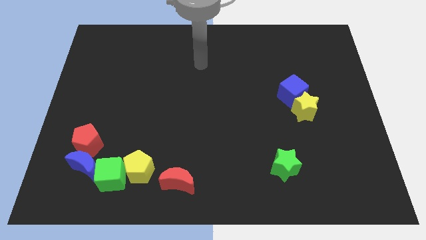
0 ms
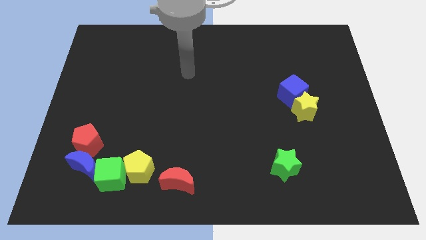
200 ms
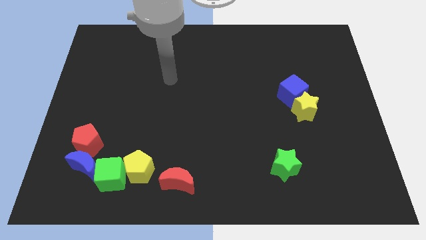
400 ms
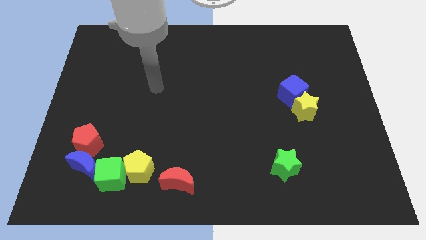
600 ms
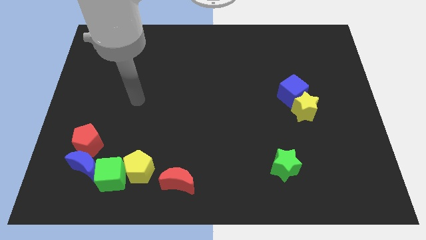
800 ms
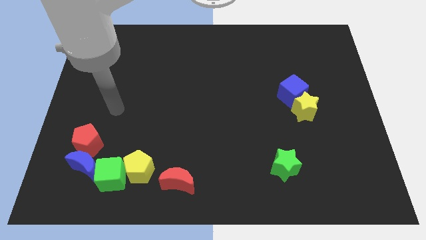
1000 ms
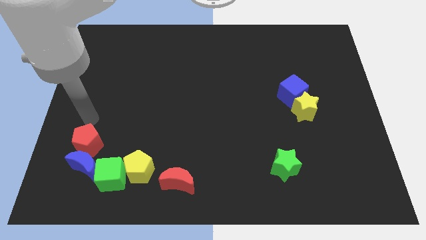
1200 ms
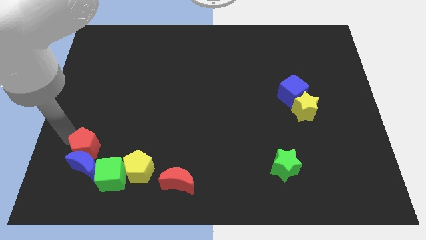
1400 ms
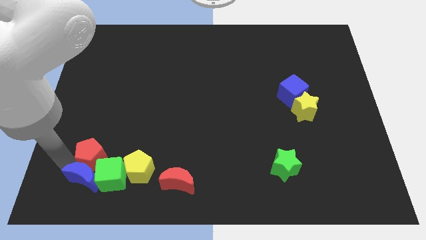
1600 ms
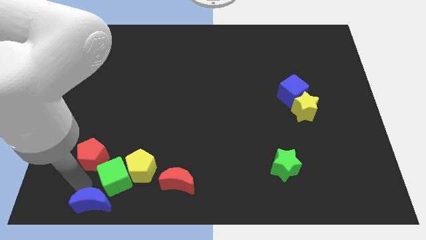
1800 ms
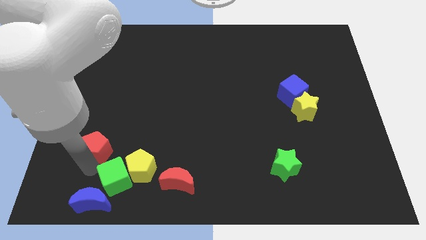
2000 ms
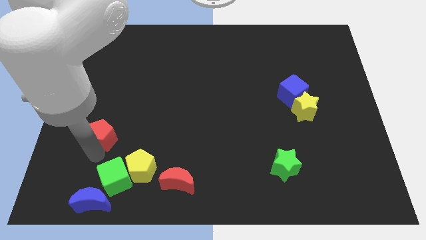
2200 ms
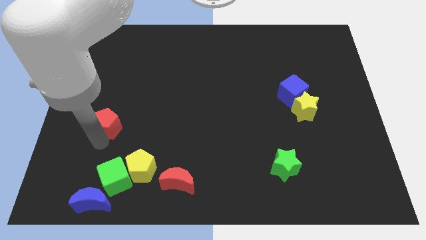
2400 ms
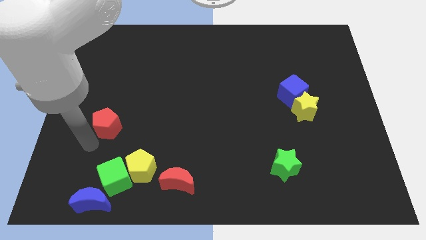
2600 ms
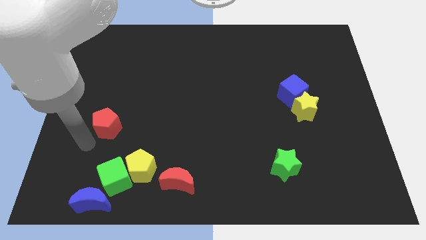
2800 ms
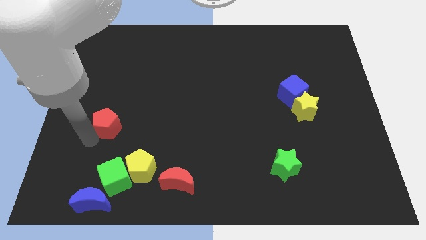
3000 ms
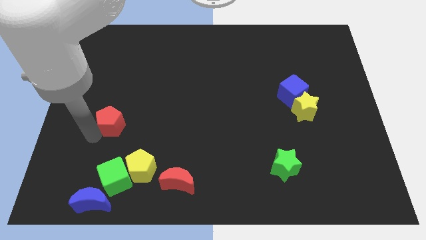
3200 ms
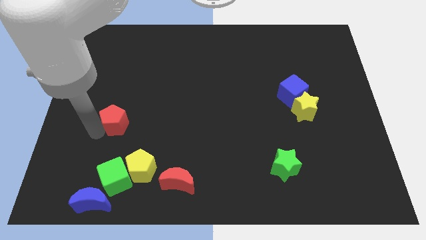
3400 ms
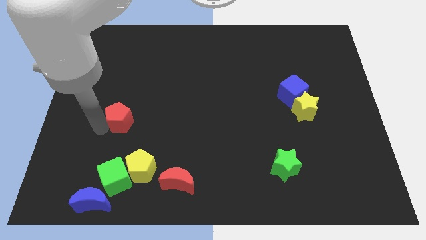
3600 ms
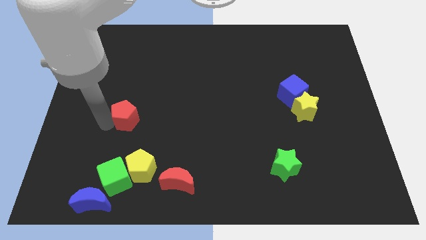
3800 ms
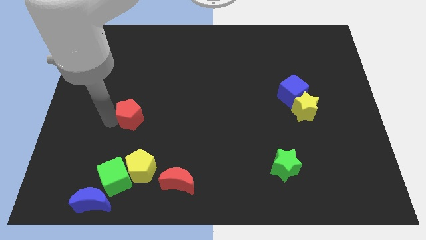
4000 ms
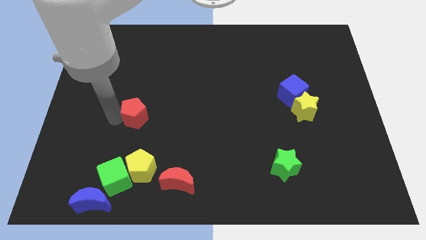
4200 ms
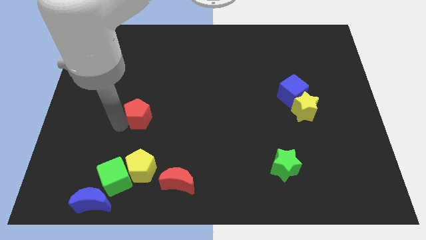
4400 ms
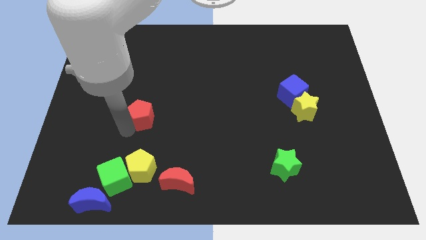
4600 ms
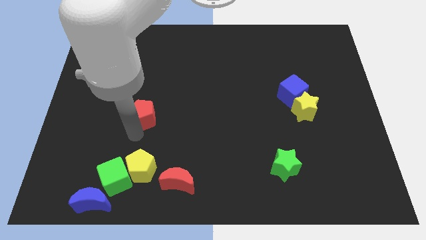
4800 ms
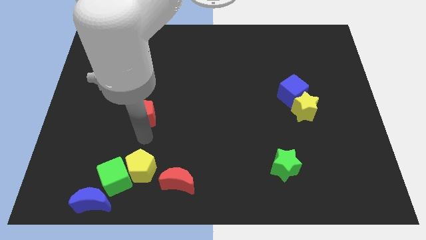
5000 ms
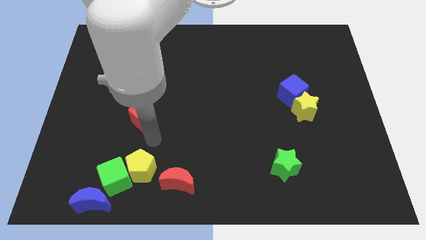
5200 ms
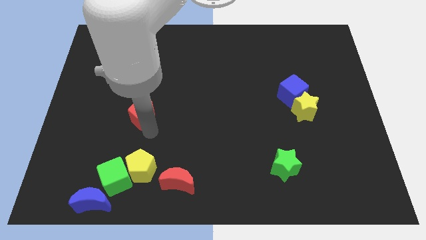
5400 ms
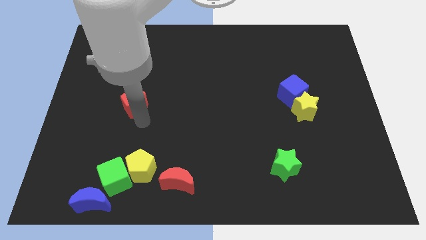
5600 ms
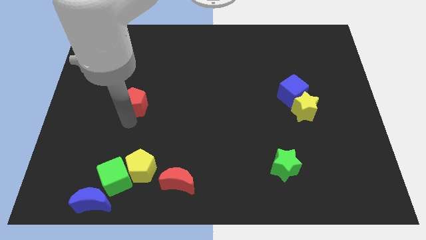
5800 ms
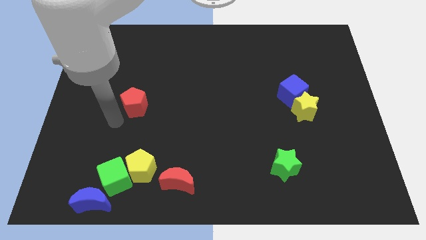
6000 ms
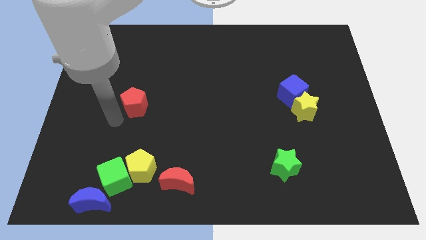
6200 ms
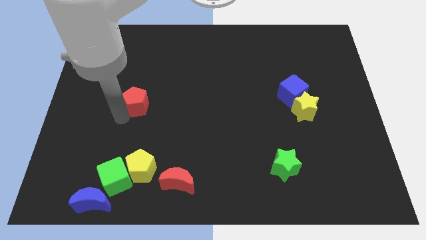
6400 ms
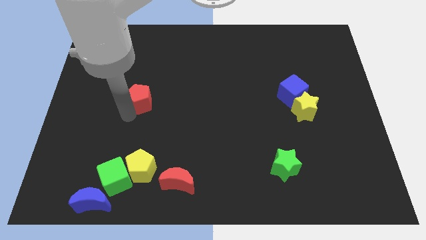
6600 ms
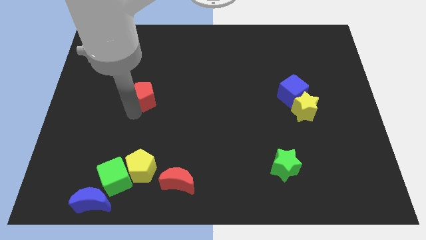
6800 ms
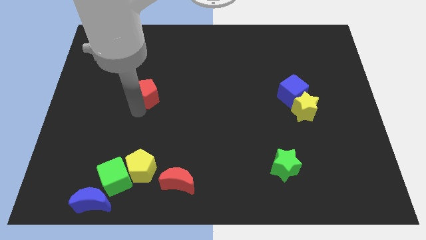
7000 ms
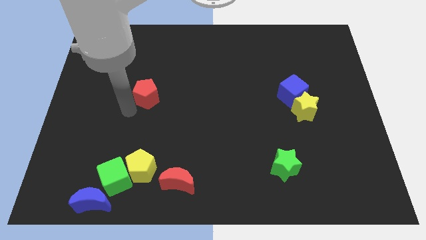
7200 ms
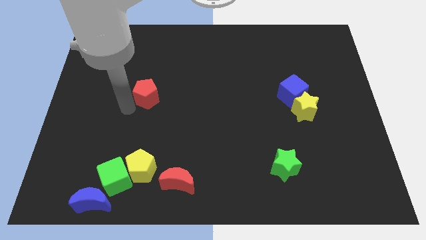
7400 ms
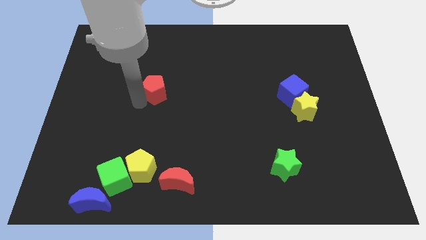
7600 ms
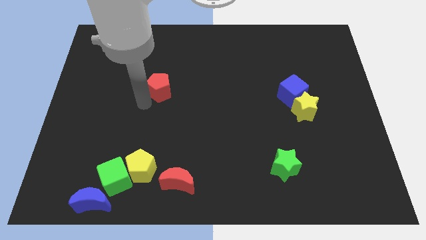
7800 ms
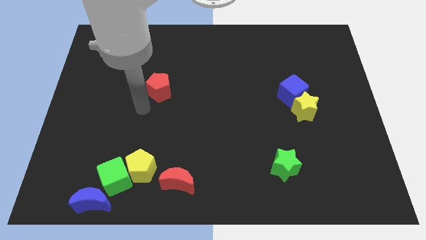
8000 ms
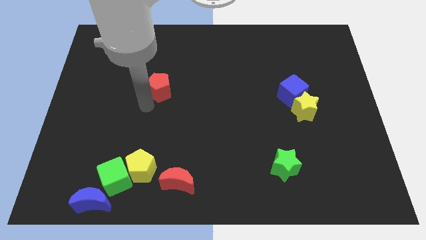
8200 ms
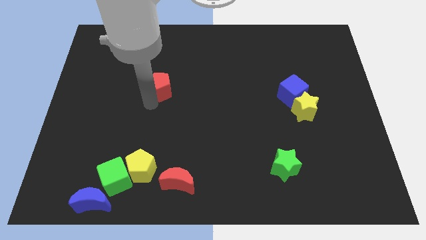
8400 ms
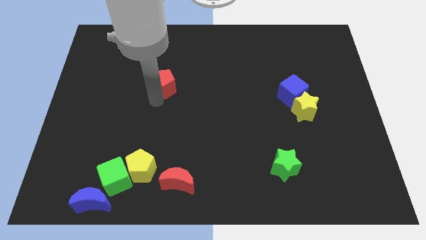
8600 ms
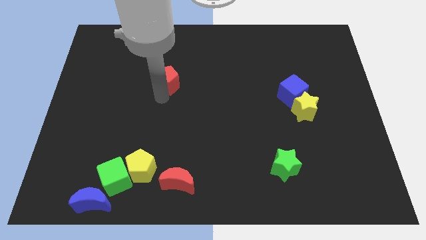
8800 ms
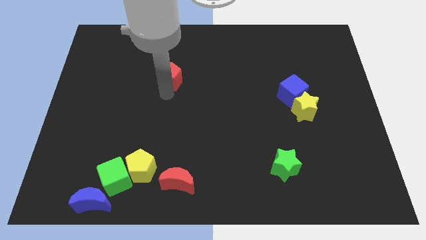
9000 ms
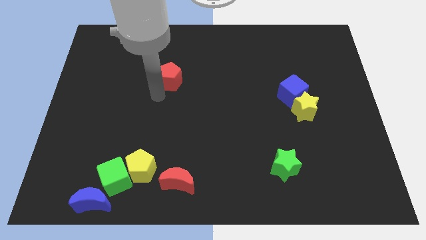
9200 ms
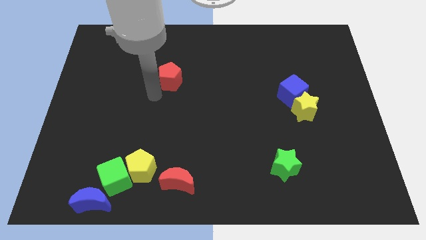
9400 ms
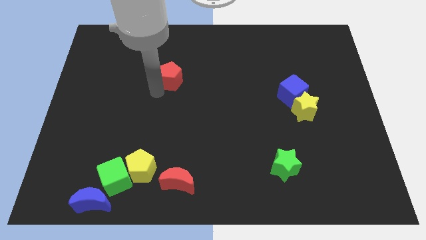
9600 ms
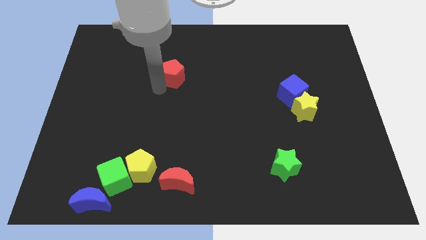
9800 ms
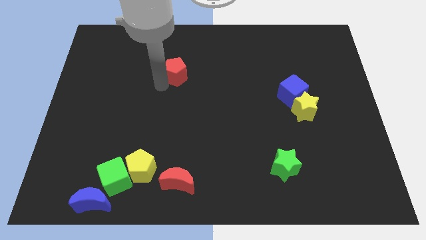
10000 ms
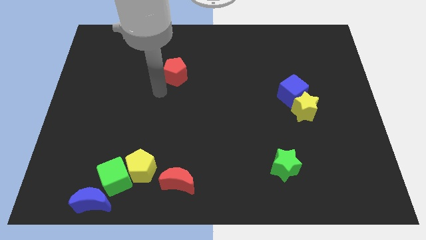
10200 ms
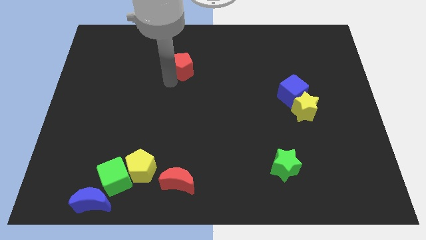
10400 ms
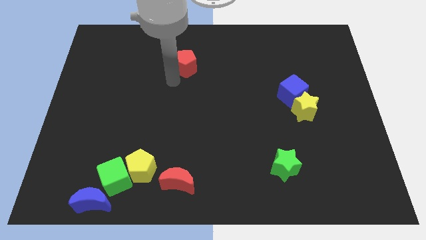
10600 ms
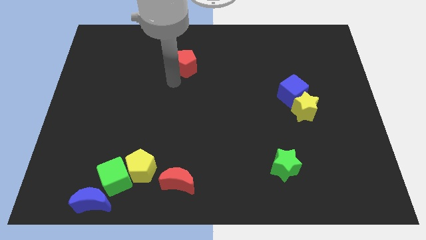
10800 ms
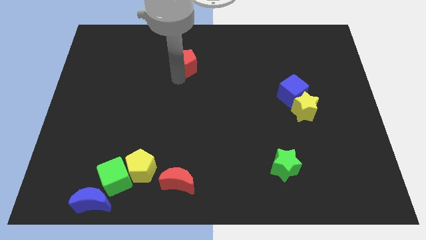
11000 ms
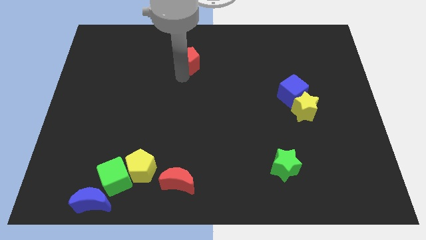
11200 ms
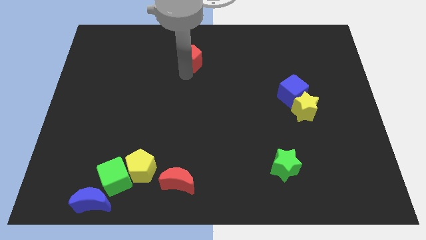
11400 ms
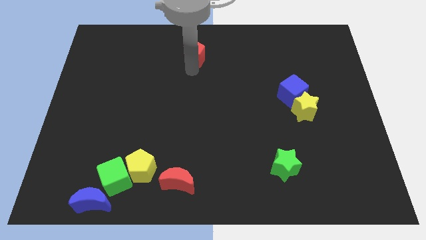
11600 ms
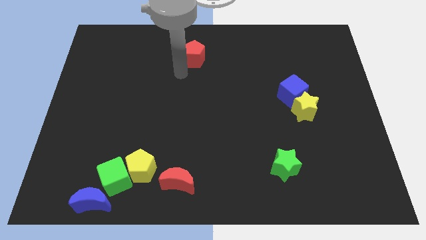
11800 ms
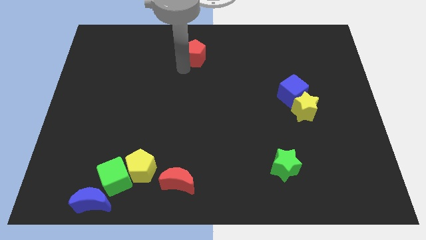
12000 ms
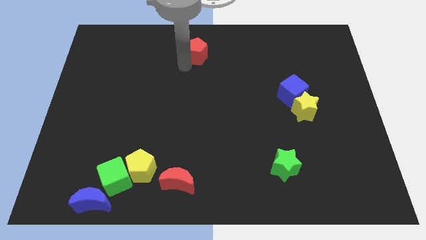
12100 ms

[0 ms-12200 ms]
push the red pentagon to the top side
